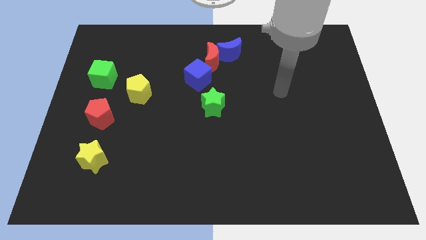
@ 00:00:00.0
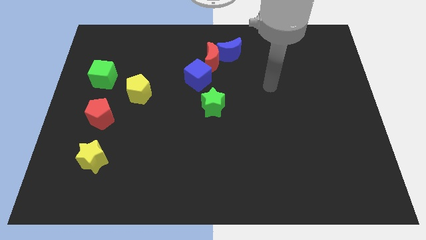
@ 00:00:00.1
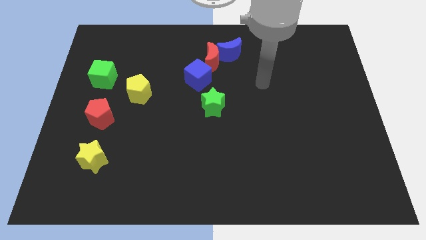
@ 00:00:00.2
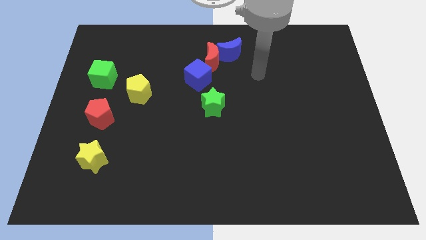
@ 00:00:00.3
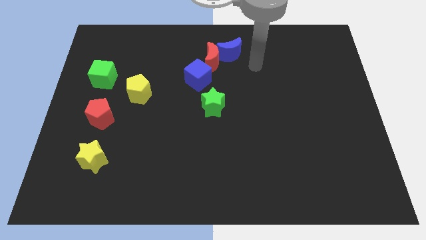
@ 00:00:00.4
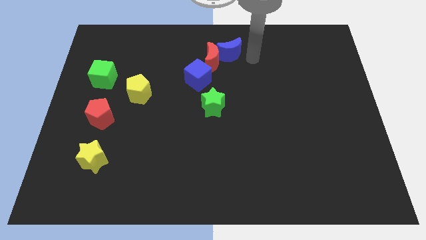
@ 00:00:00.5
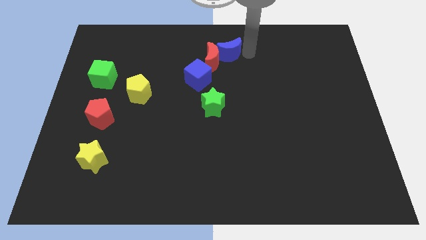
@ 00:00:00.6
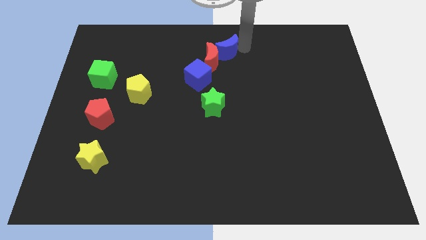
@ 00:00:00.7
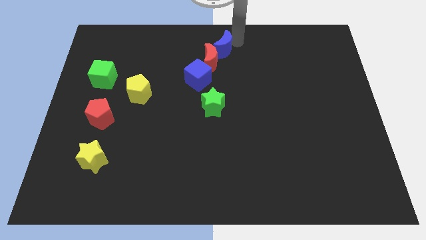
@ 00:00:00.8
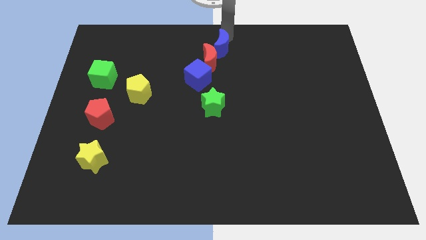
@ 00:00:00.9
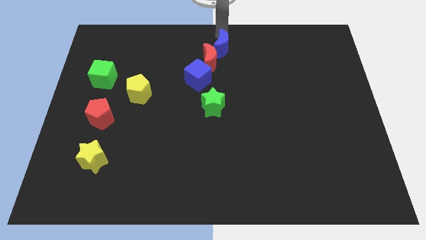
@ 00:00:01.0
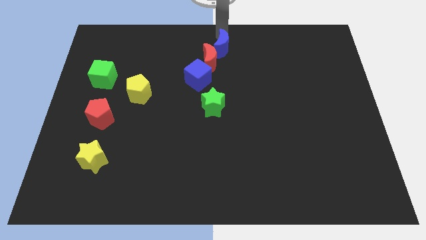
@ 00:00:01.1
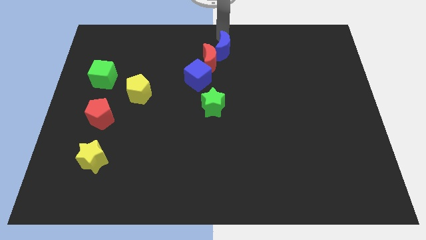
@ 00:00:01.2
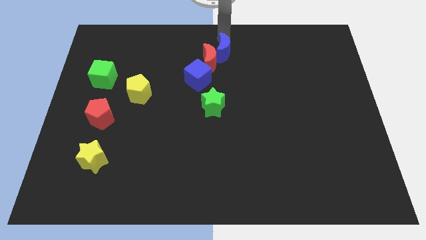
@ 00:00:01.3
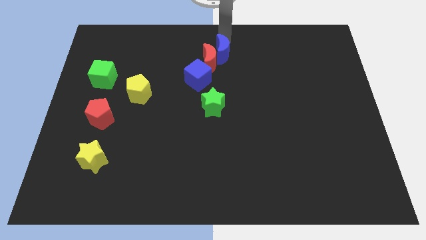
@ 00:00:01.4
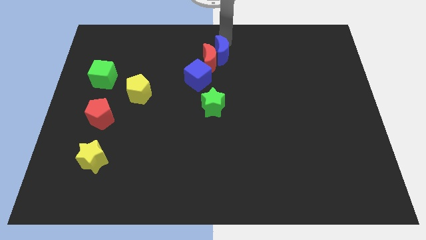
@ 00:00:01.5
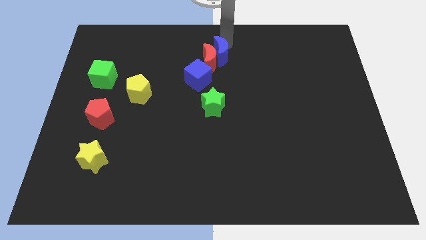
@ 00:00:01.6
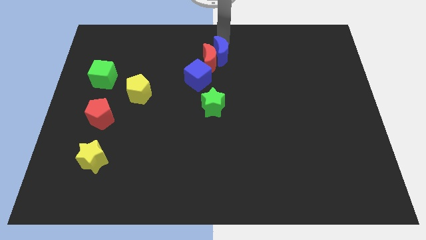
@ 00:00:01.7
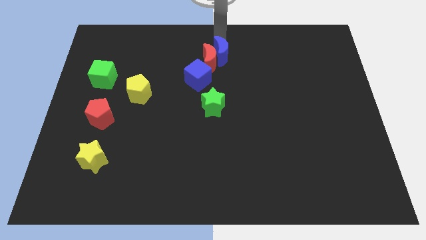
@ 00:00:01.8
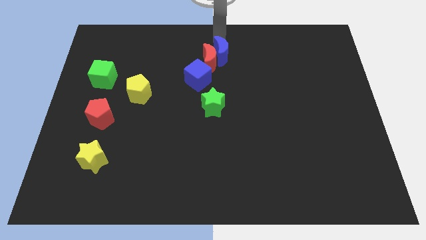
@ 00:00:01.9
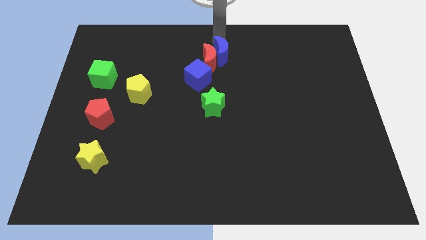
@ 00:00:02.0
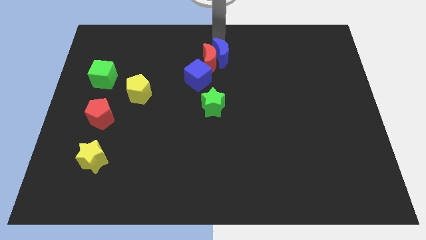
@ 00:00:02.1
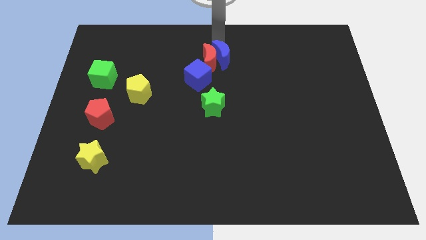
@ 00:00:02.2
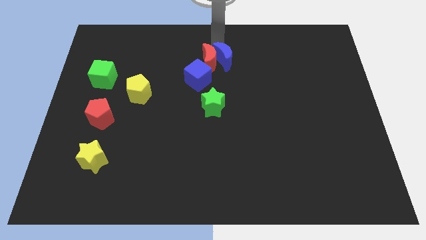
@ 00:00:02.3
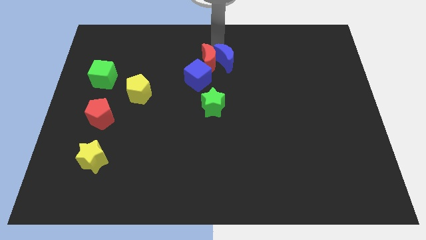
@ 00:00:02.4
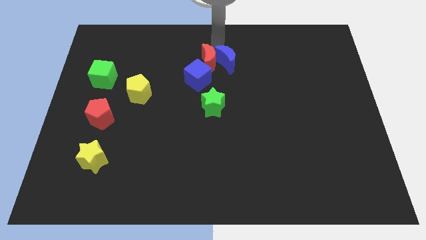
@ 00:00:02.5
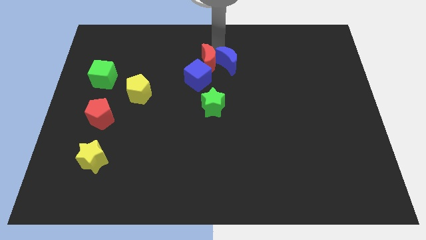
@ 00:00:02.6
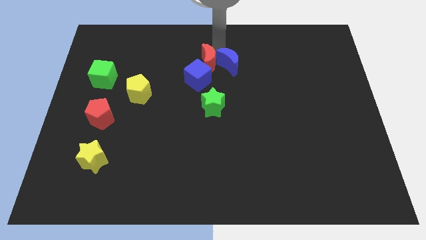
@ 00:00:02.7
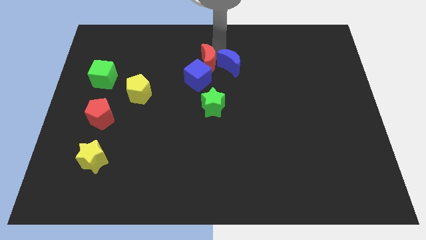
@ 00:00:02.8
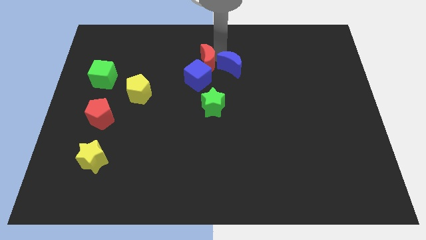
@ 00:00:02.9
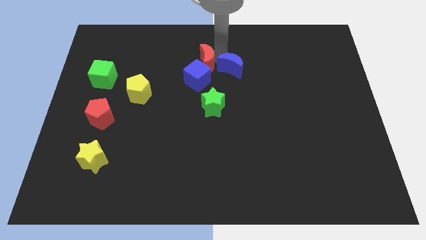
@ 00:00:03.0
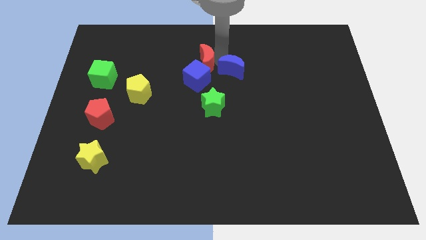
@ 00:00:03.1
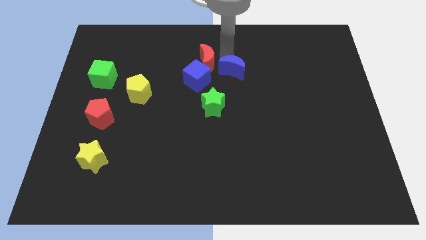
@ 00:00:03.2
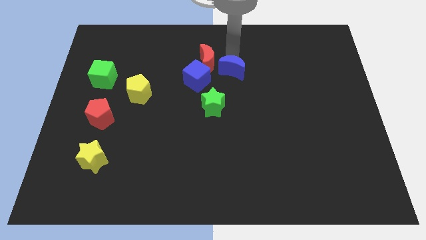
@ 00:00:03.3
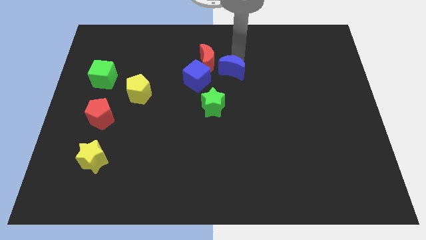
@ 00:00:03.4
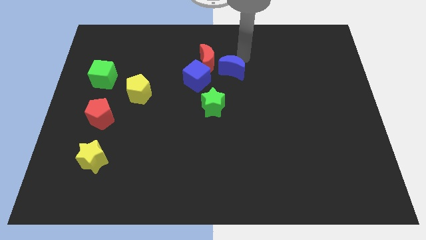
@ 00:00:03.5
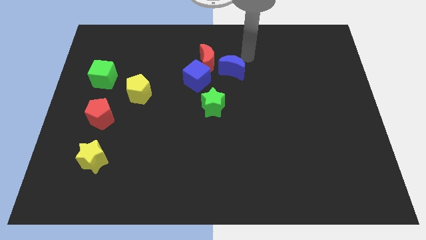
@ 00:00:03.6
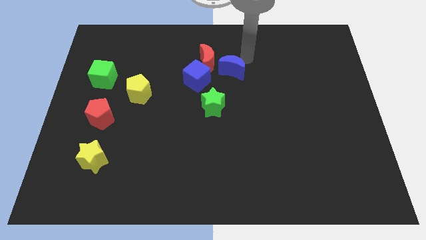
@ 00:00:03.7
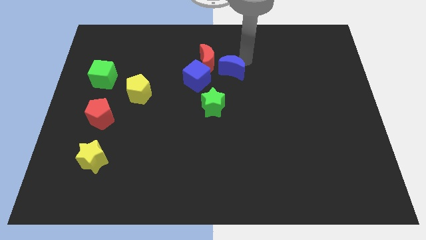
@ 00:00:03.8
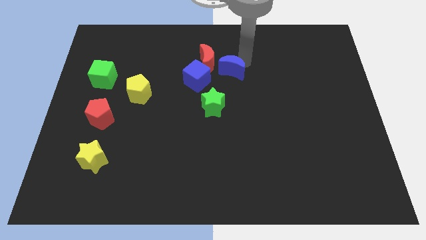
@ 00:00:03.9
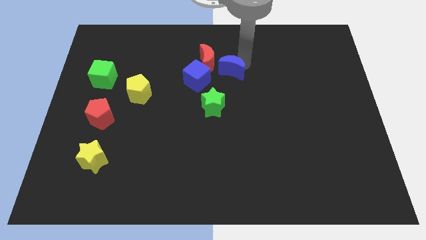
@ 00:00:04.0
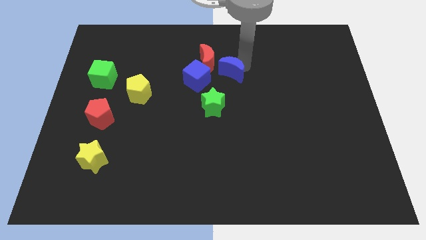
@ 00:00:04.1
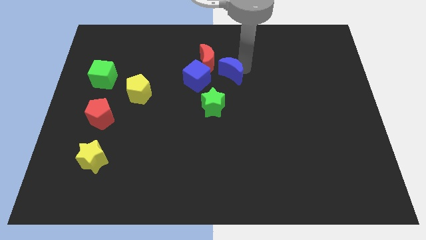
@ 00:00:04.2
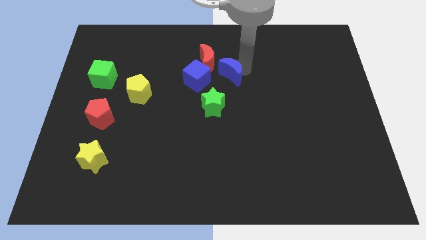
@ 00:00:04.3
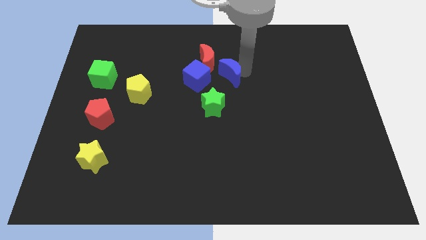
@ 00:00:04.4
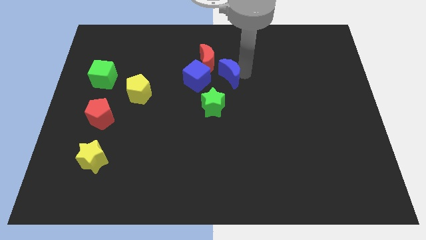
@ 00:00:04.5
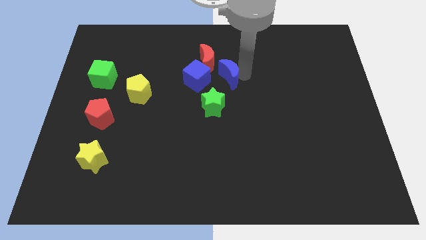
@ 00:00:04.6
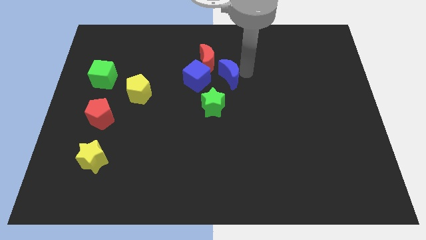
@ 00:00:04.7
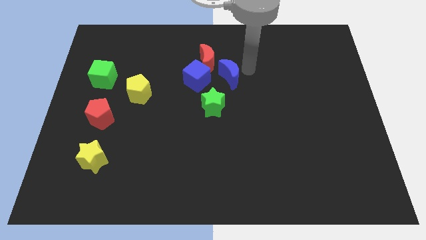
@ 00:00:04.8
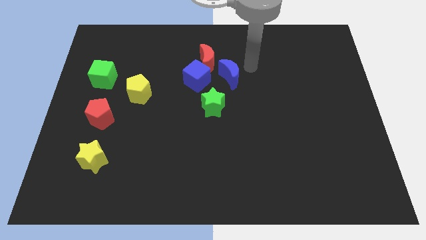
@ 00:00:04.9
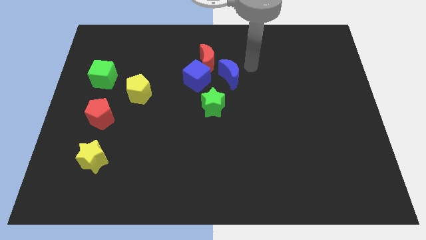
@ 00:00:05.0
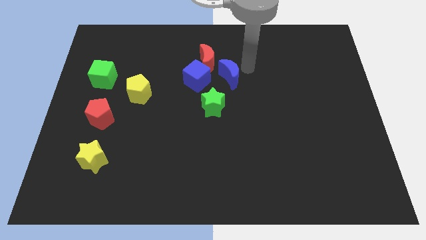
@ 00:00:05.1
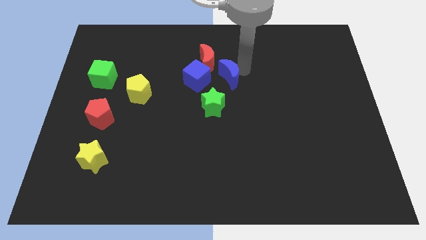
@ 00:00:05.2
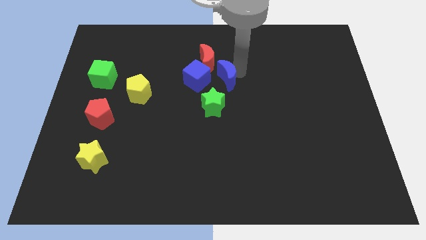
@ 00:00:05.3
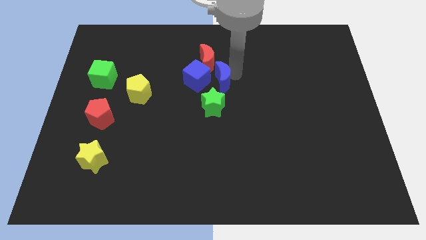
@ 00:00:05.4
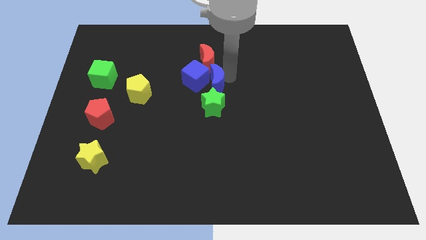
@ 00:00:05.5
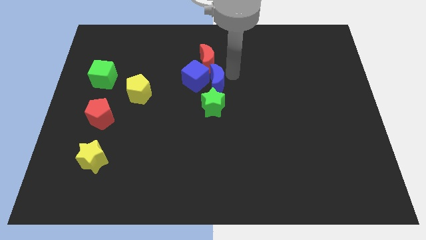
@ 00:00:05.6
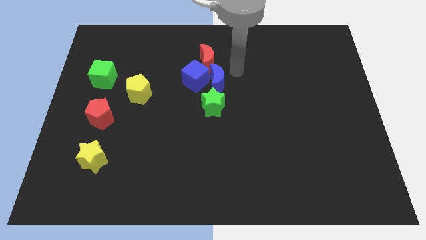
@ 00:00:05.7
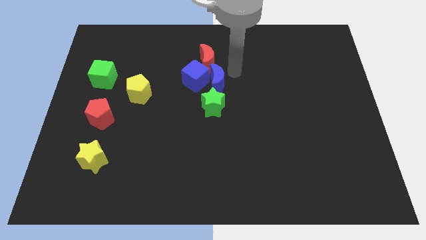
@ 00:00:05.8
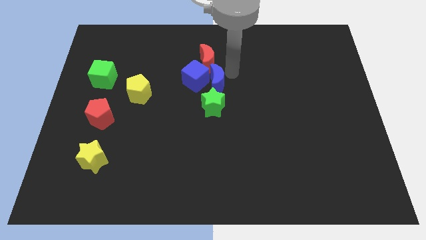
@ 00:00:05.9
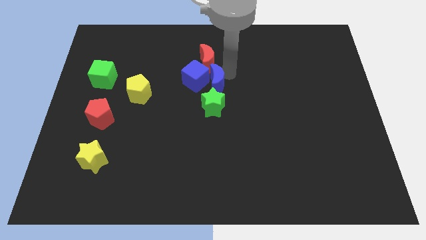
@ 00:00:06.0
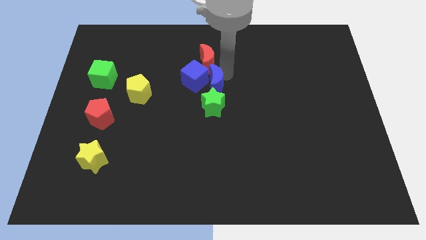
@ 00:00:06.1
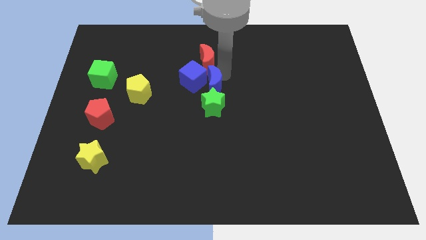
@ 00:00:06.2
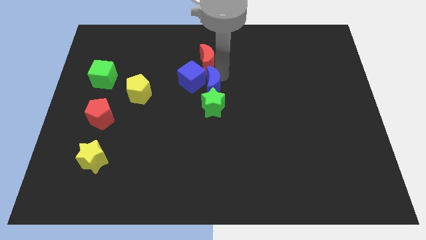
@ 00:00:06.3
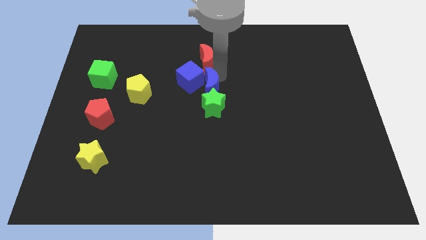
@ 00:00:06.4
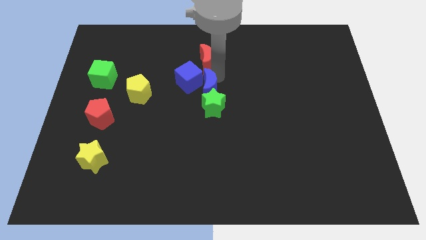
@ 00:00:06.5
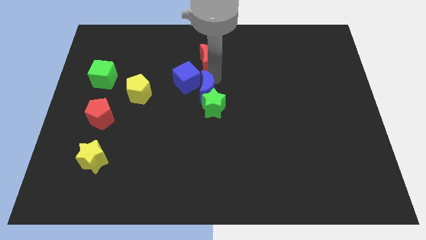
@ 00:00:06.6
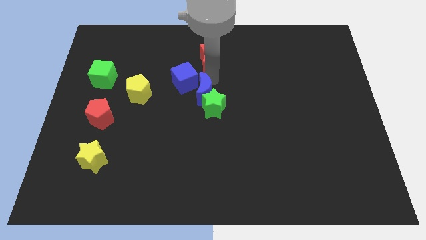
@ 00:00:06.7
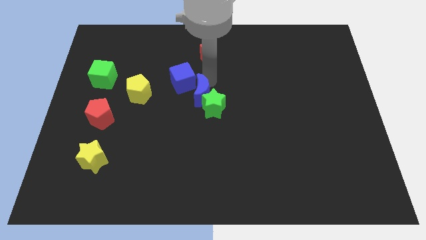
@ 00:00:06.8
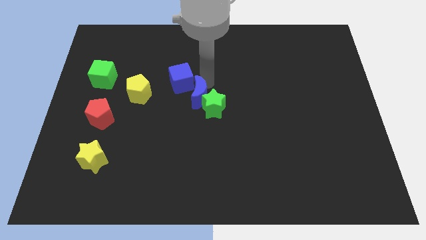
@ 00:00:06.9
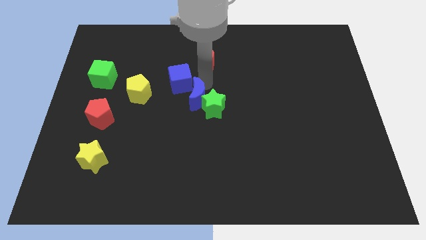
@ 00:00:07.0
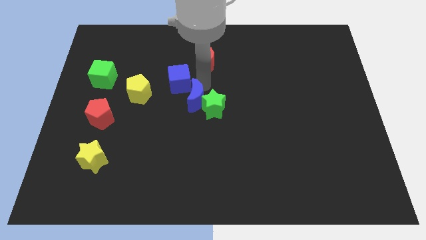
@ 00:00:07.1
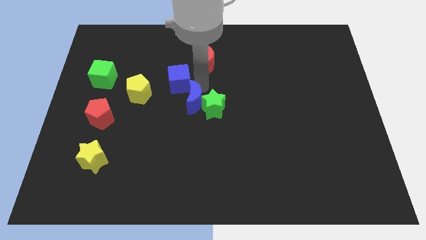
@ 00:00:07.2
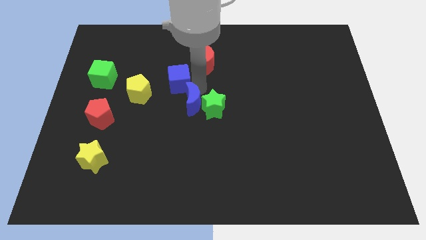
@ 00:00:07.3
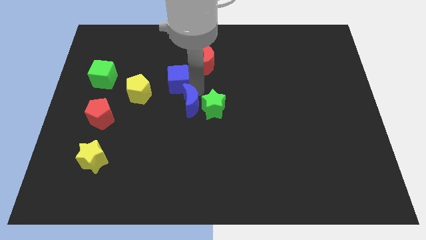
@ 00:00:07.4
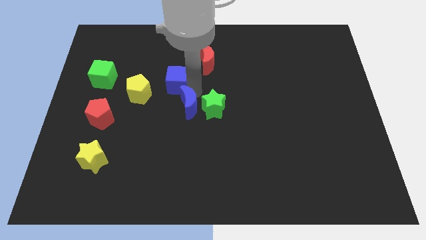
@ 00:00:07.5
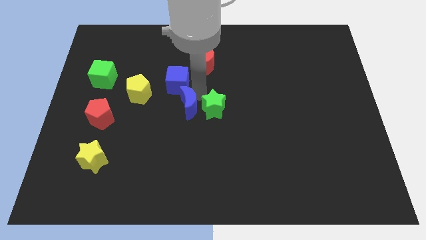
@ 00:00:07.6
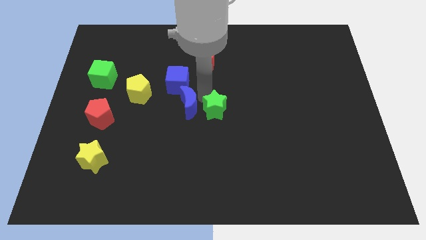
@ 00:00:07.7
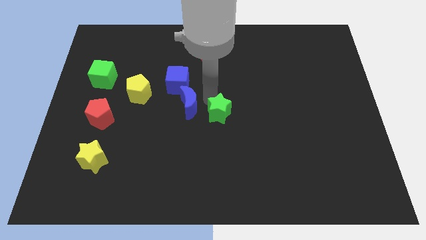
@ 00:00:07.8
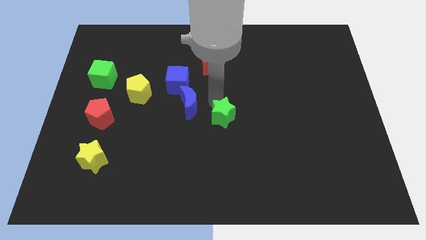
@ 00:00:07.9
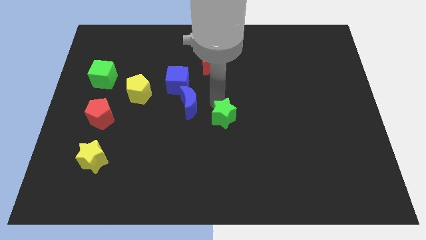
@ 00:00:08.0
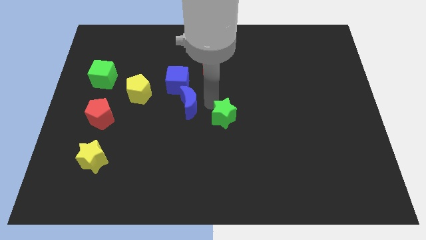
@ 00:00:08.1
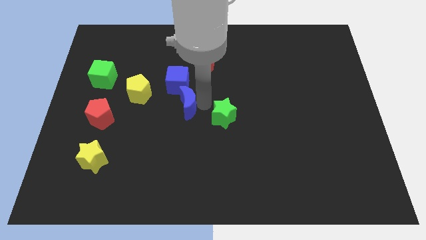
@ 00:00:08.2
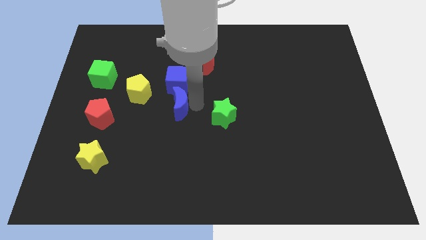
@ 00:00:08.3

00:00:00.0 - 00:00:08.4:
push the blue moon down and to the left diagonally
